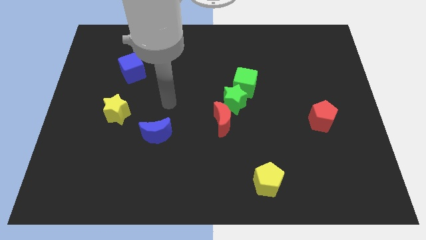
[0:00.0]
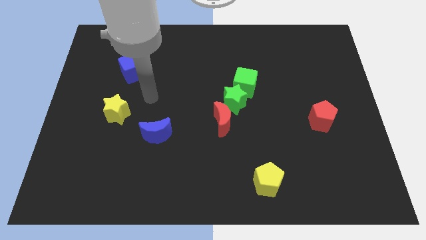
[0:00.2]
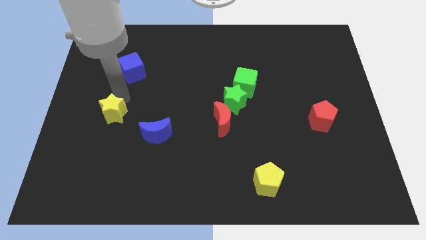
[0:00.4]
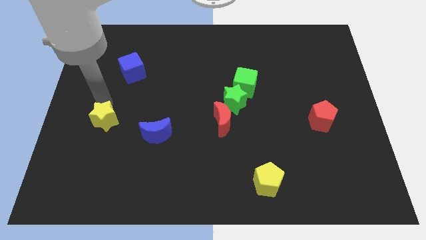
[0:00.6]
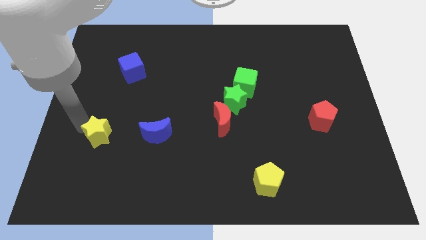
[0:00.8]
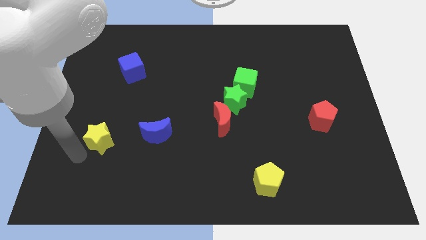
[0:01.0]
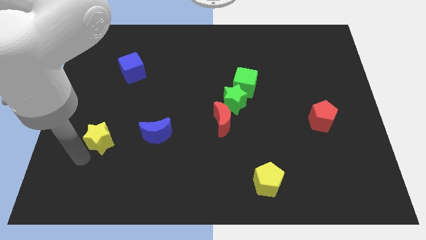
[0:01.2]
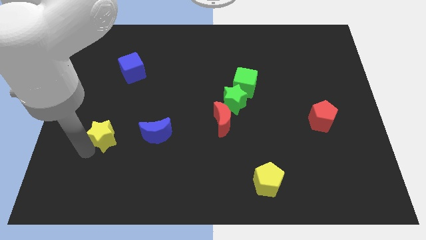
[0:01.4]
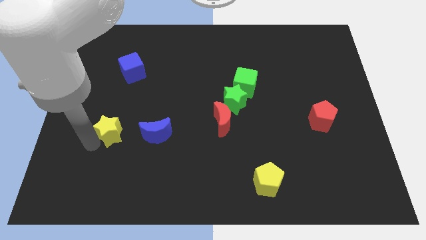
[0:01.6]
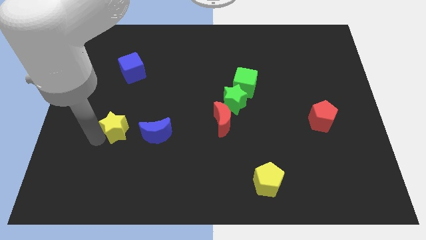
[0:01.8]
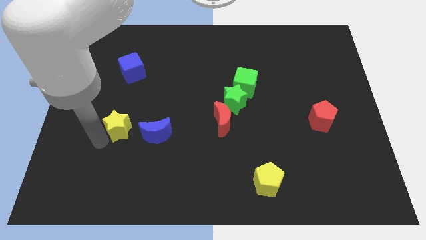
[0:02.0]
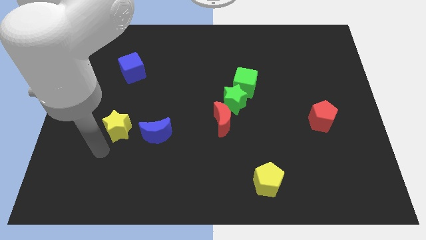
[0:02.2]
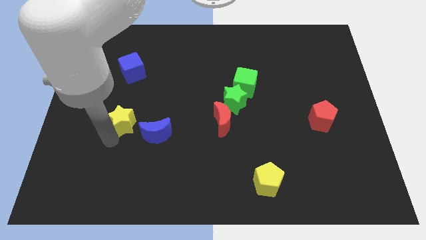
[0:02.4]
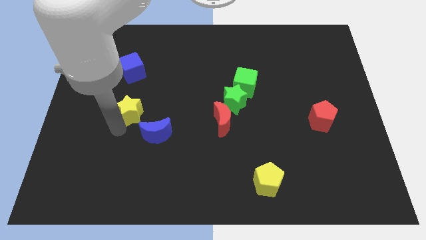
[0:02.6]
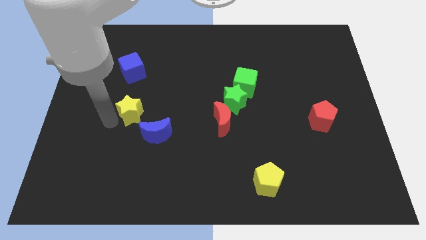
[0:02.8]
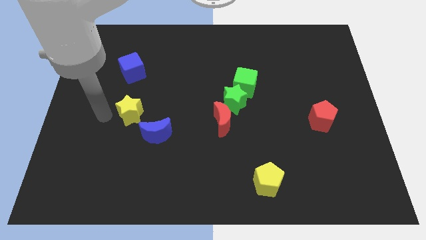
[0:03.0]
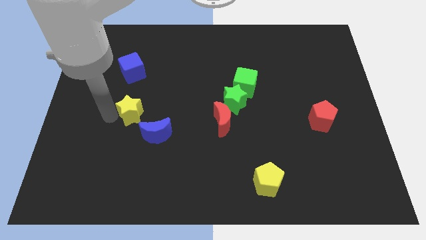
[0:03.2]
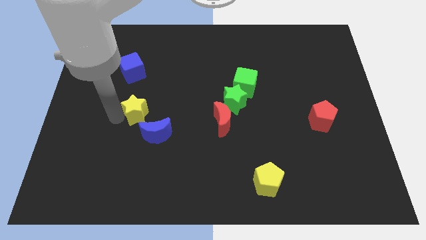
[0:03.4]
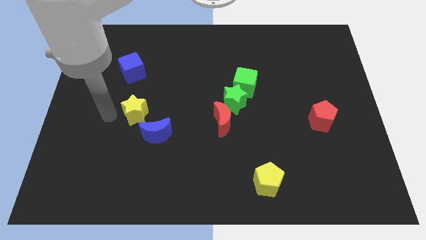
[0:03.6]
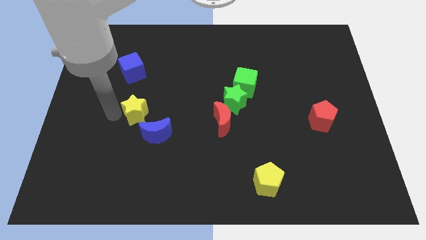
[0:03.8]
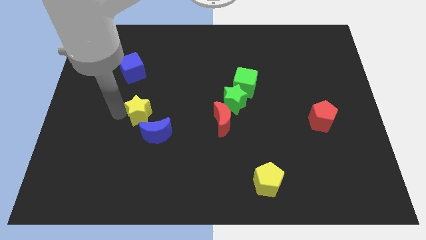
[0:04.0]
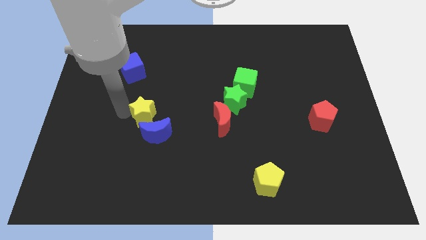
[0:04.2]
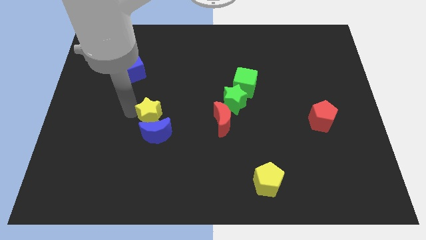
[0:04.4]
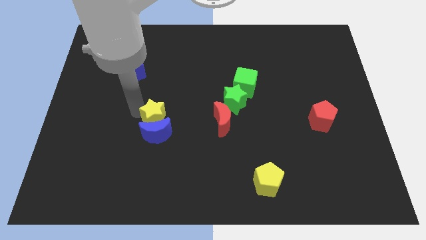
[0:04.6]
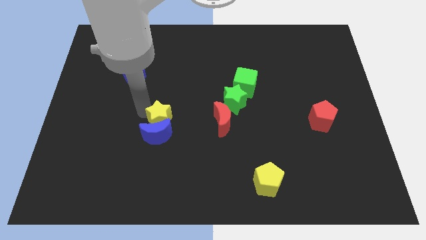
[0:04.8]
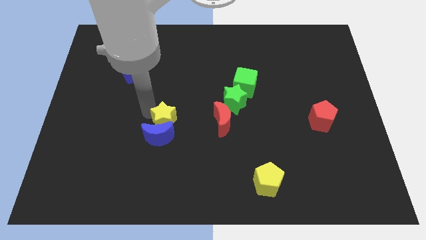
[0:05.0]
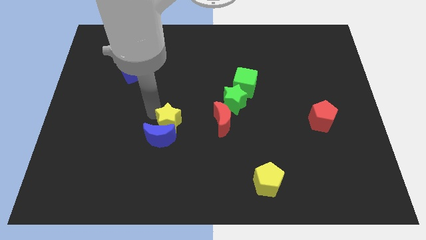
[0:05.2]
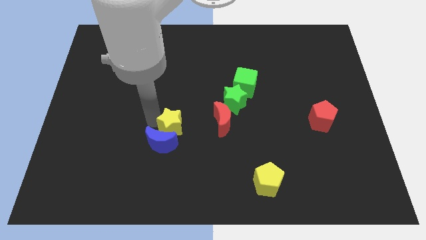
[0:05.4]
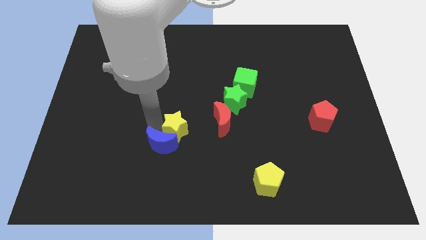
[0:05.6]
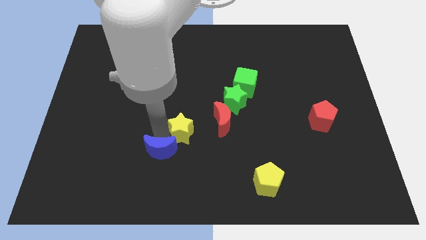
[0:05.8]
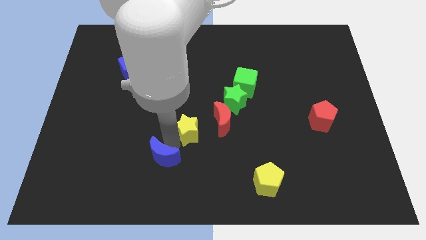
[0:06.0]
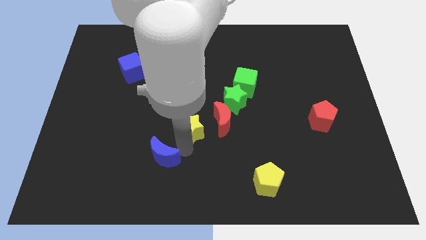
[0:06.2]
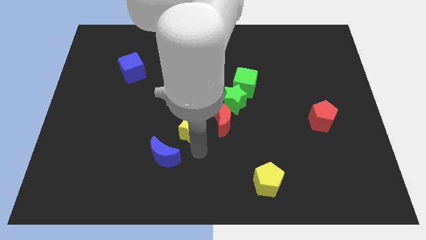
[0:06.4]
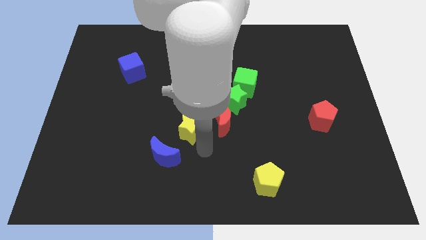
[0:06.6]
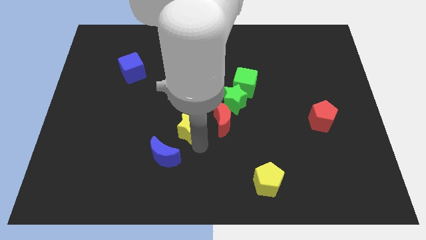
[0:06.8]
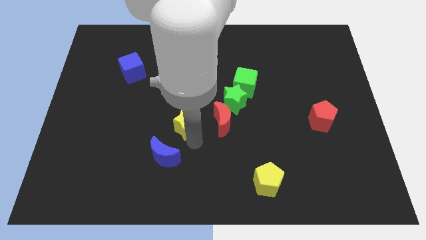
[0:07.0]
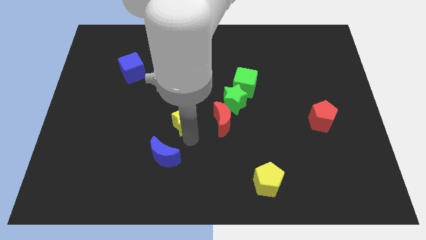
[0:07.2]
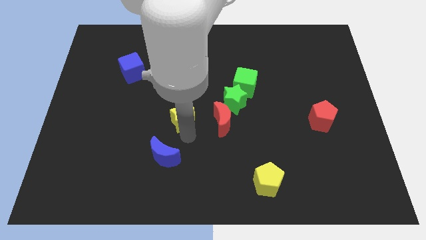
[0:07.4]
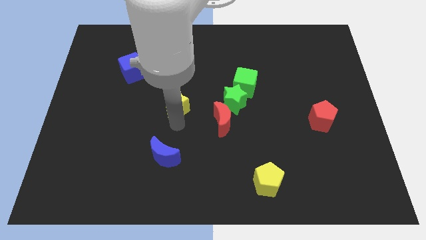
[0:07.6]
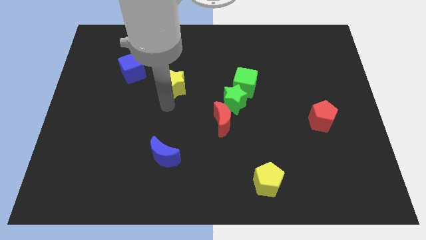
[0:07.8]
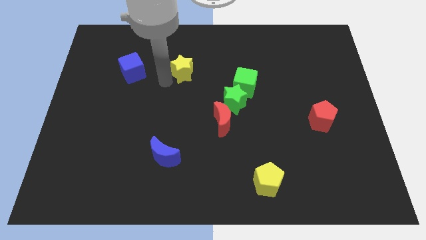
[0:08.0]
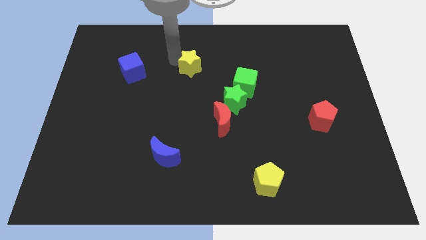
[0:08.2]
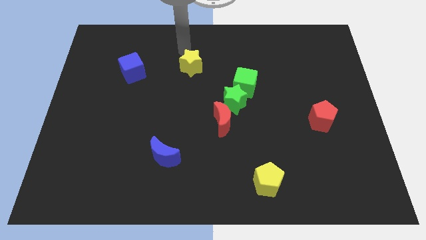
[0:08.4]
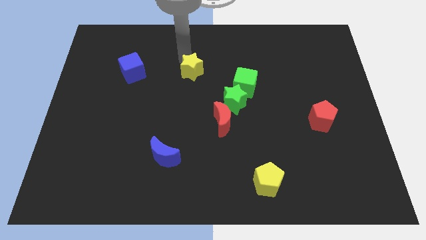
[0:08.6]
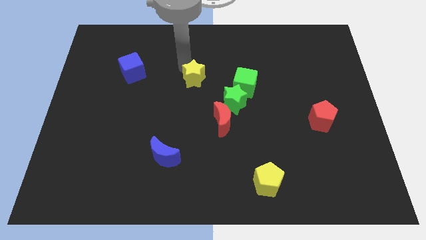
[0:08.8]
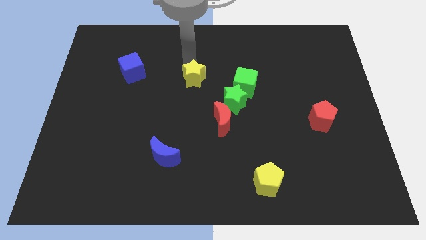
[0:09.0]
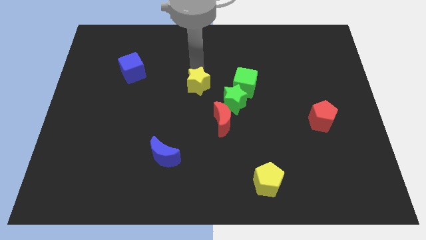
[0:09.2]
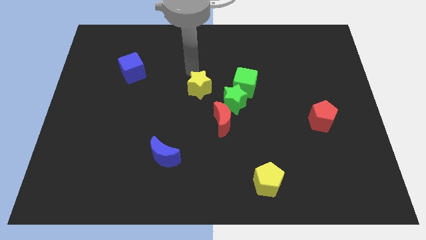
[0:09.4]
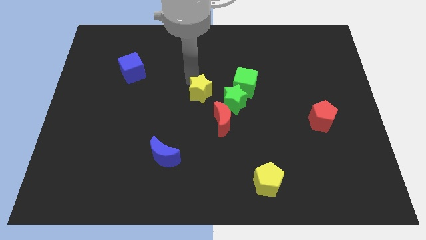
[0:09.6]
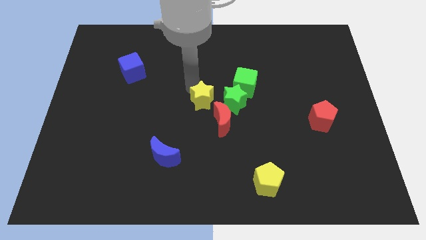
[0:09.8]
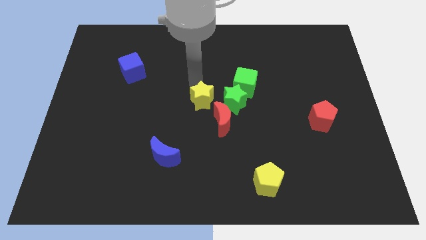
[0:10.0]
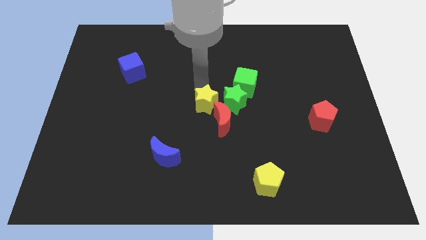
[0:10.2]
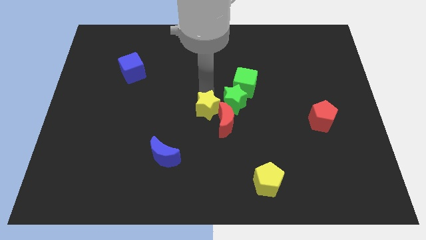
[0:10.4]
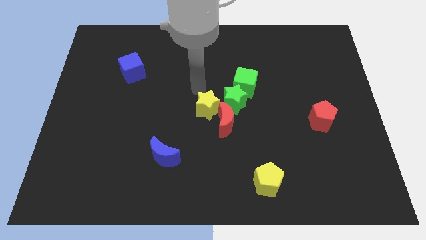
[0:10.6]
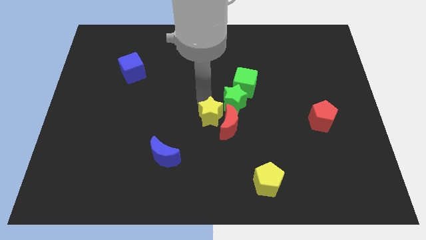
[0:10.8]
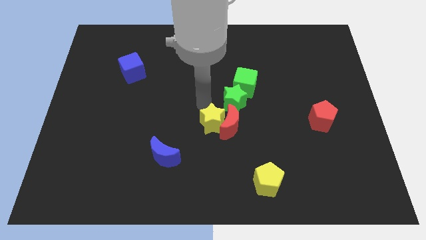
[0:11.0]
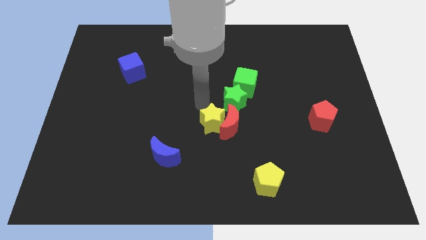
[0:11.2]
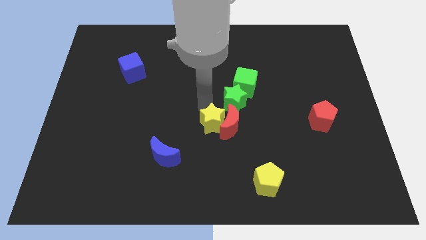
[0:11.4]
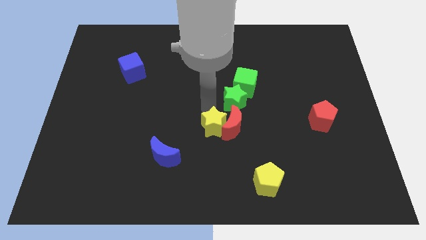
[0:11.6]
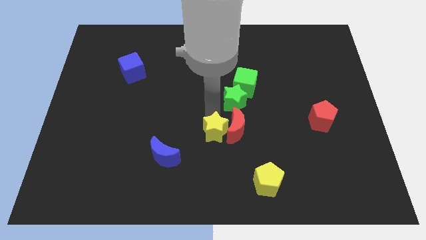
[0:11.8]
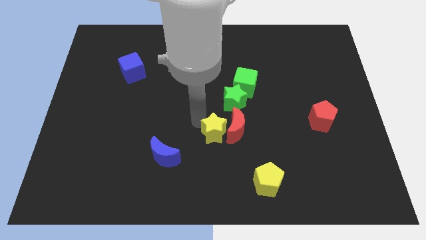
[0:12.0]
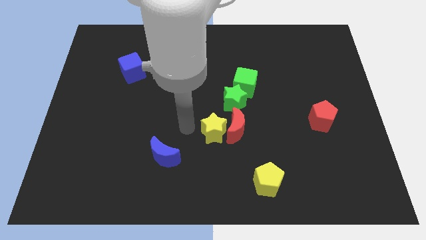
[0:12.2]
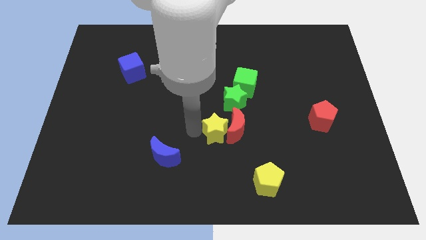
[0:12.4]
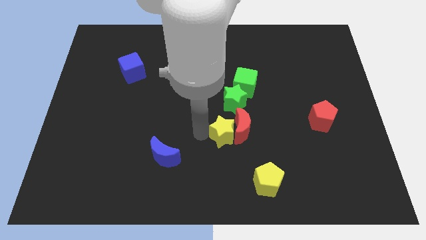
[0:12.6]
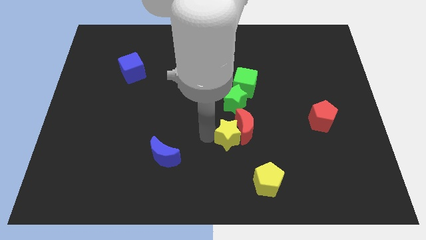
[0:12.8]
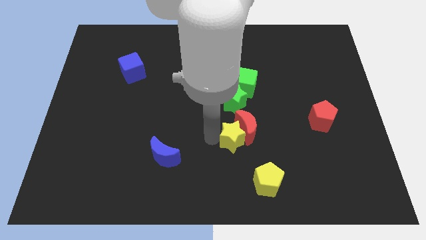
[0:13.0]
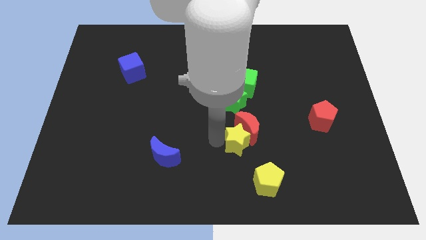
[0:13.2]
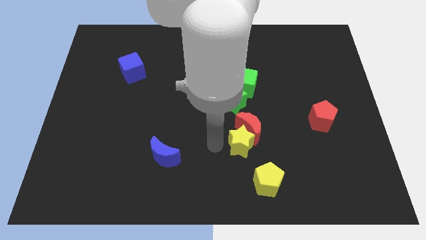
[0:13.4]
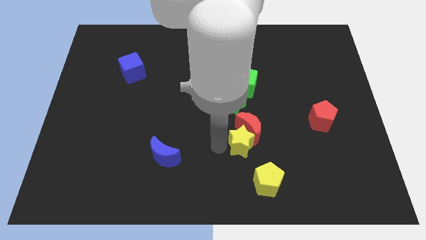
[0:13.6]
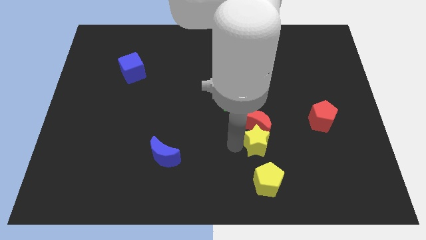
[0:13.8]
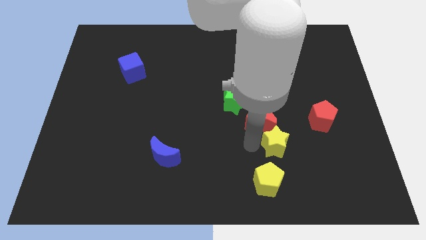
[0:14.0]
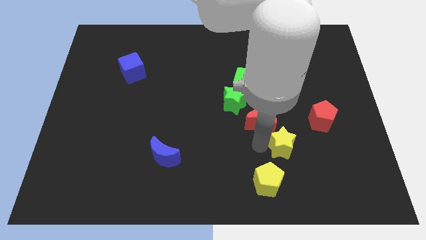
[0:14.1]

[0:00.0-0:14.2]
move the yellow star diagonally down and to the left of the red pentagon
